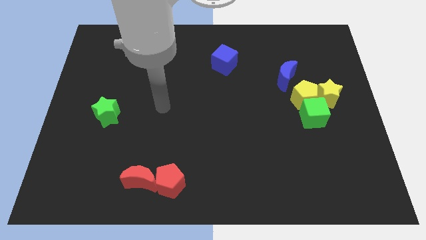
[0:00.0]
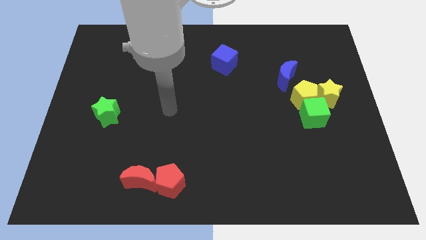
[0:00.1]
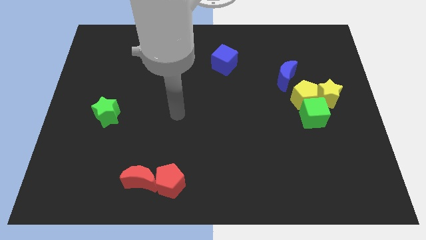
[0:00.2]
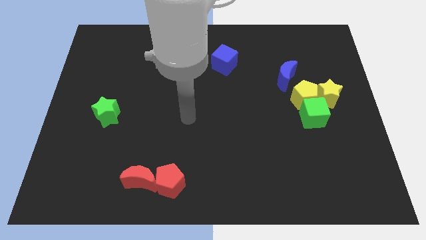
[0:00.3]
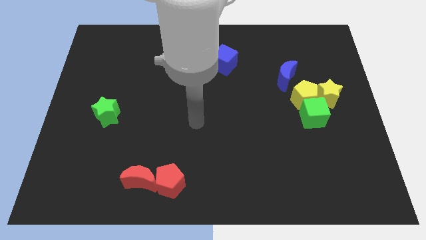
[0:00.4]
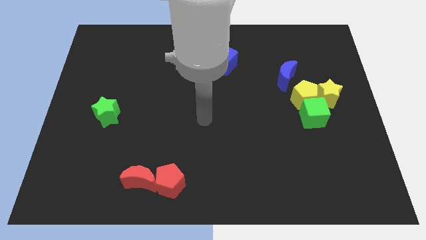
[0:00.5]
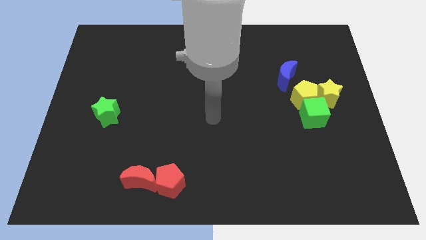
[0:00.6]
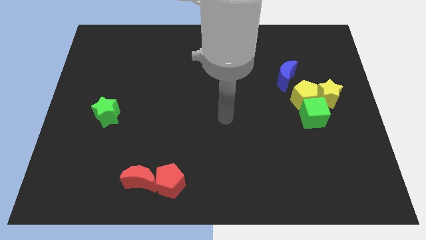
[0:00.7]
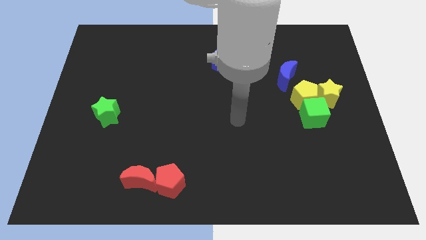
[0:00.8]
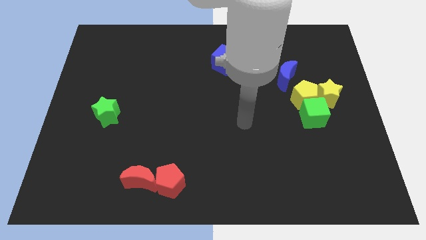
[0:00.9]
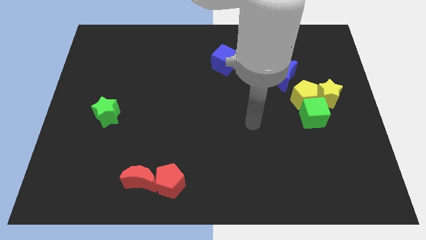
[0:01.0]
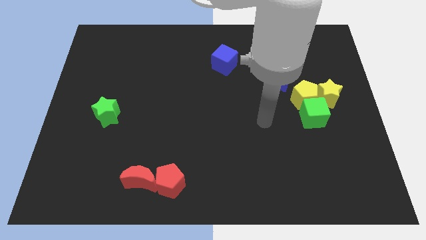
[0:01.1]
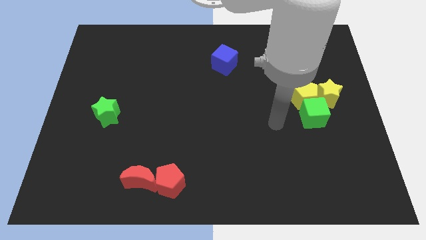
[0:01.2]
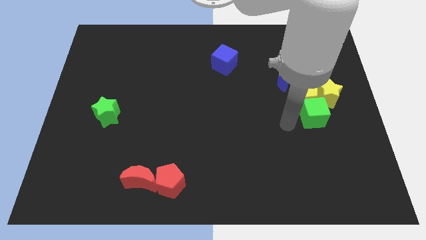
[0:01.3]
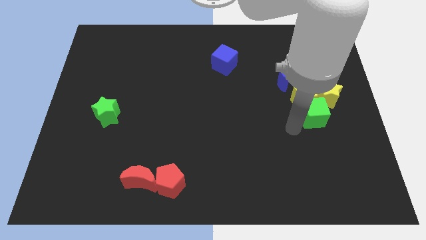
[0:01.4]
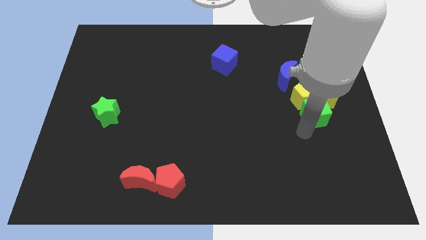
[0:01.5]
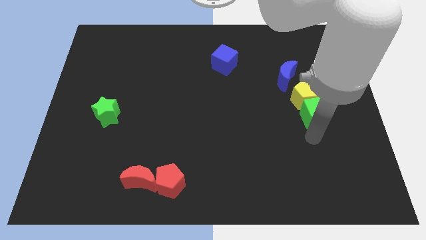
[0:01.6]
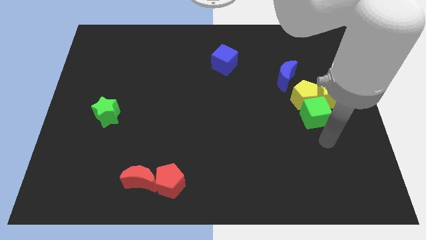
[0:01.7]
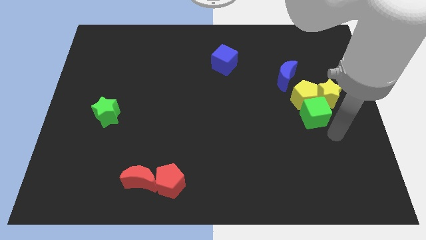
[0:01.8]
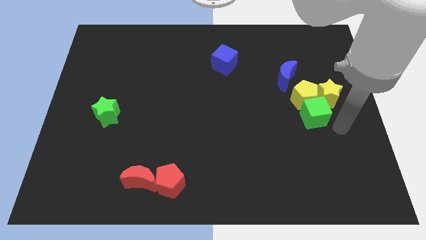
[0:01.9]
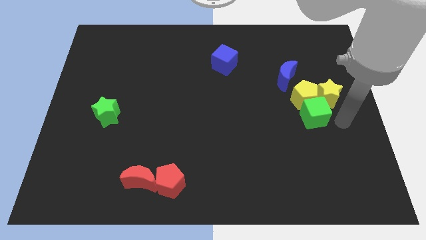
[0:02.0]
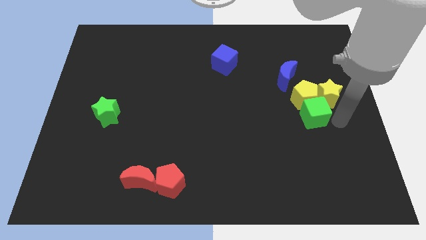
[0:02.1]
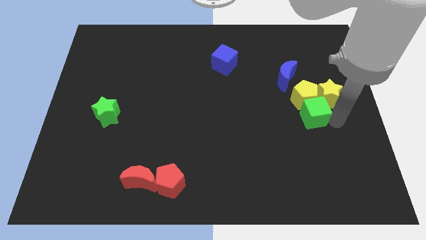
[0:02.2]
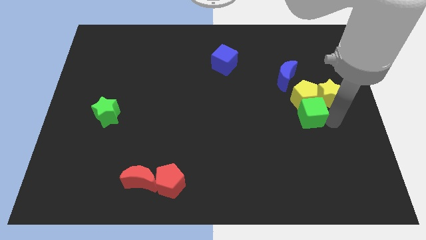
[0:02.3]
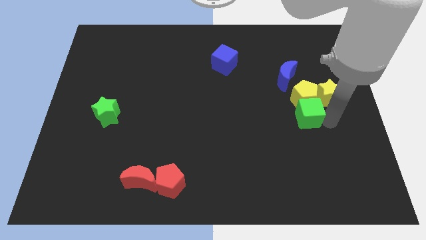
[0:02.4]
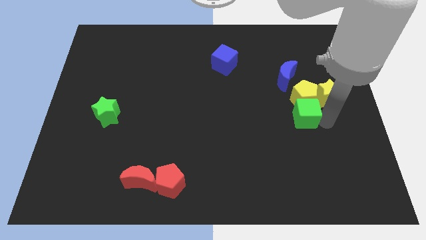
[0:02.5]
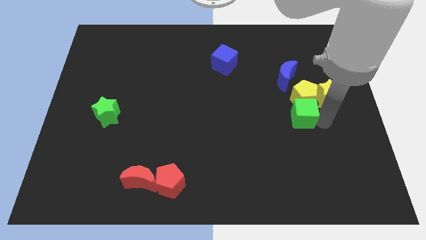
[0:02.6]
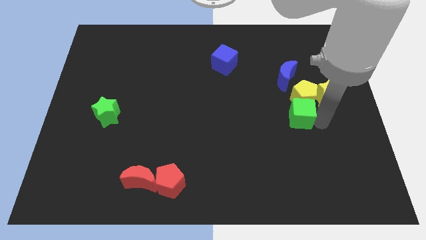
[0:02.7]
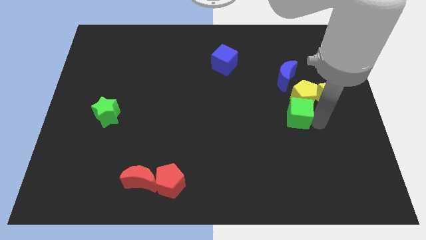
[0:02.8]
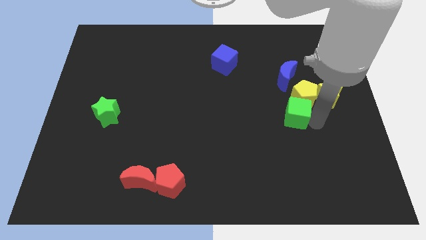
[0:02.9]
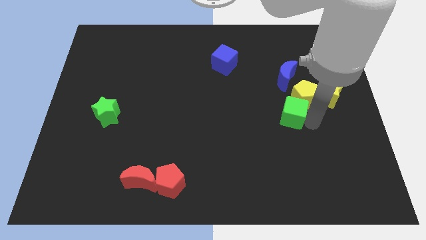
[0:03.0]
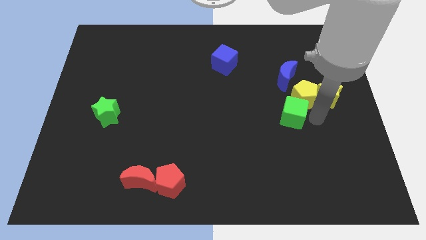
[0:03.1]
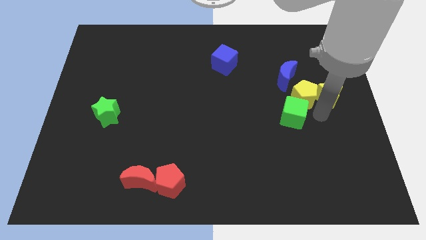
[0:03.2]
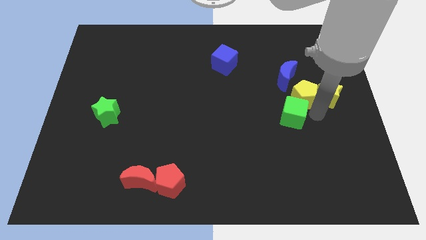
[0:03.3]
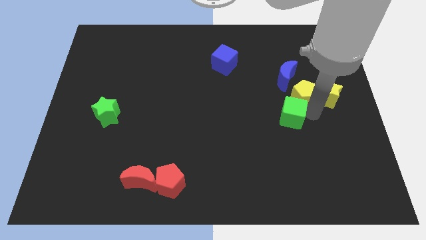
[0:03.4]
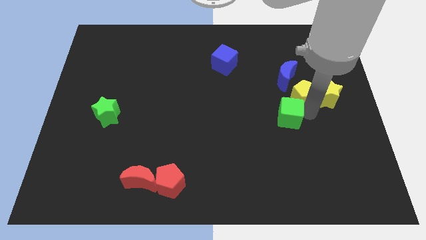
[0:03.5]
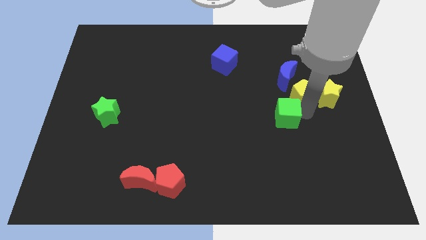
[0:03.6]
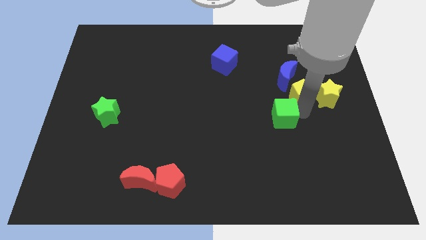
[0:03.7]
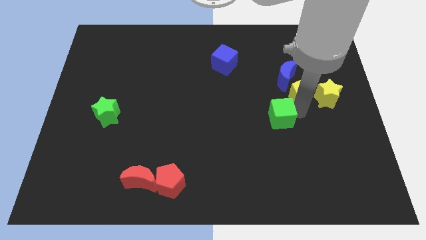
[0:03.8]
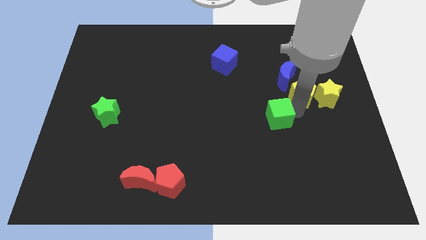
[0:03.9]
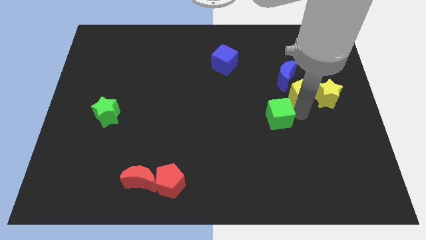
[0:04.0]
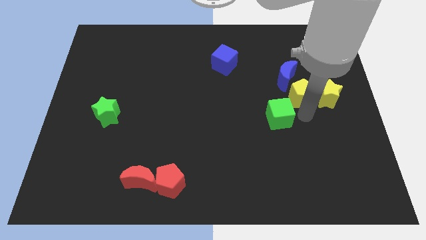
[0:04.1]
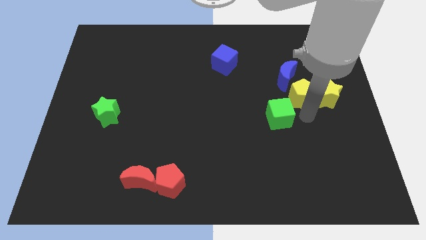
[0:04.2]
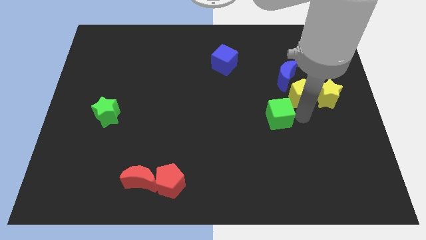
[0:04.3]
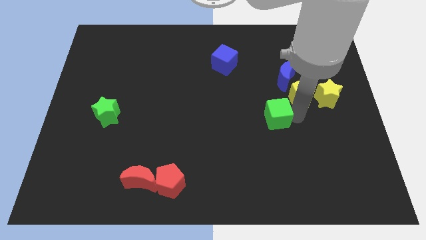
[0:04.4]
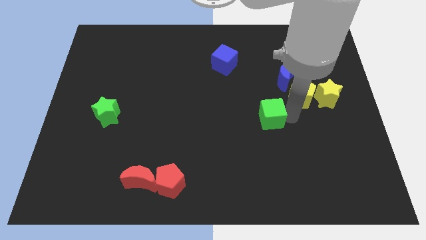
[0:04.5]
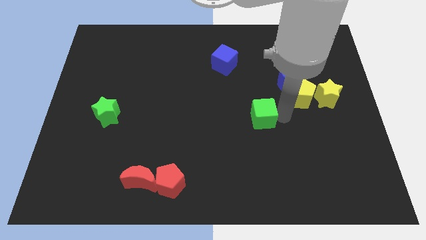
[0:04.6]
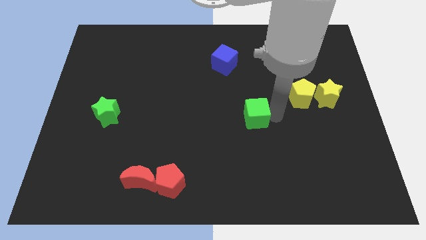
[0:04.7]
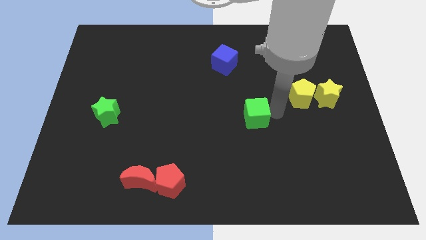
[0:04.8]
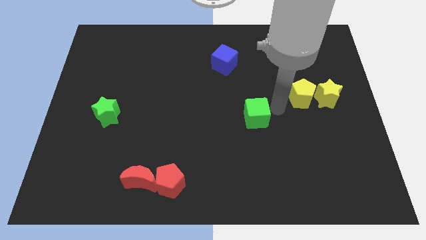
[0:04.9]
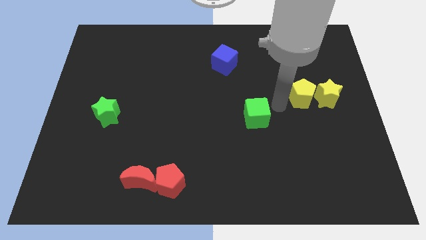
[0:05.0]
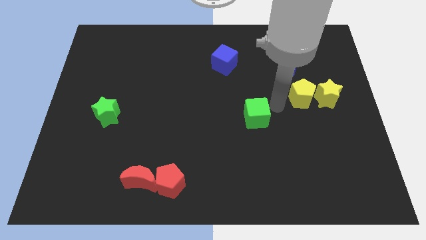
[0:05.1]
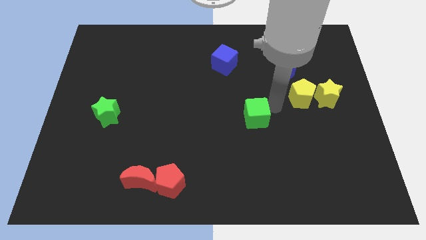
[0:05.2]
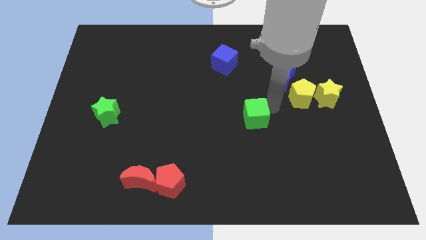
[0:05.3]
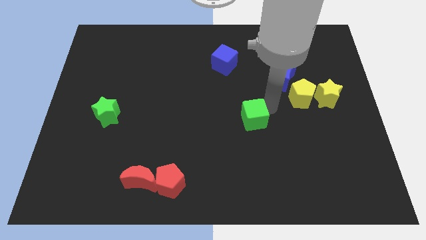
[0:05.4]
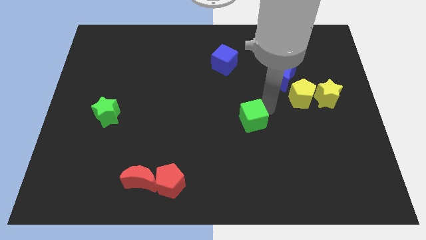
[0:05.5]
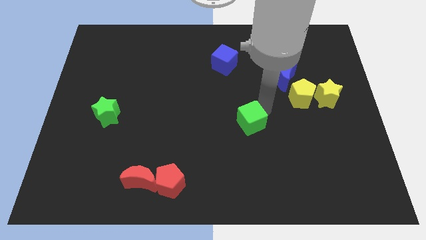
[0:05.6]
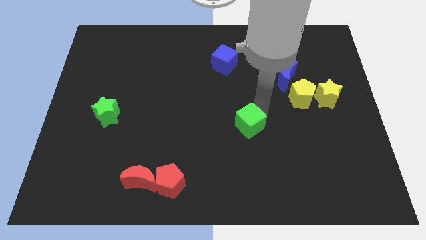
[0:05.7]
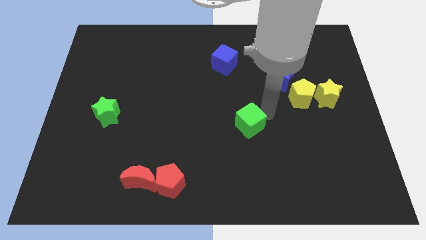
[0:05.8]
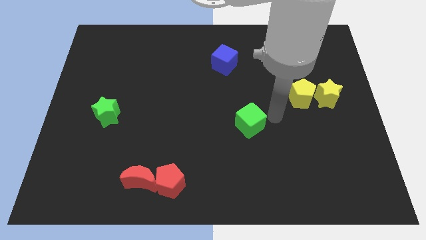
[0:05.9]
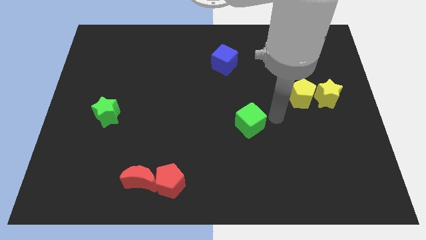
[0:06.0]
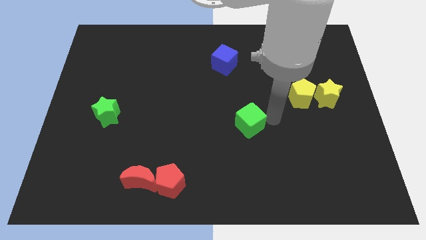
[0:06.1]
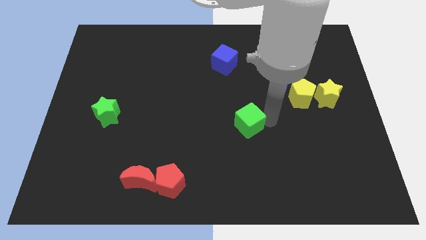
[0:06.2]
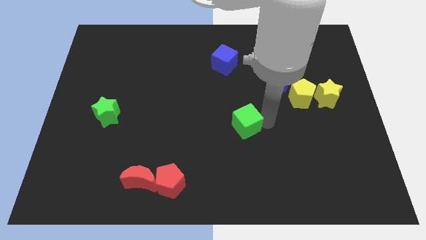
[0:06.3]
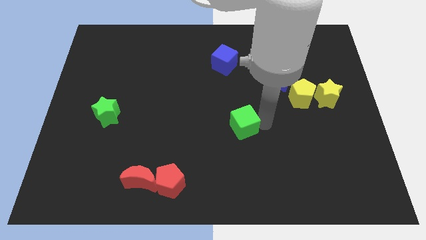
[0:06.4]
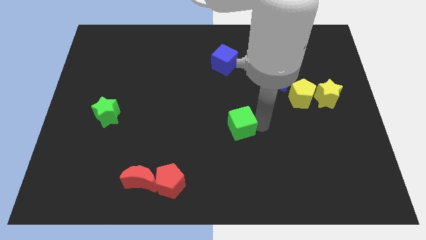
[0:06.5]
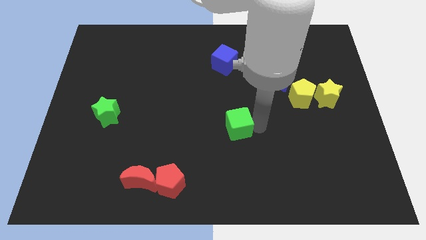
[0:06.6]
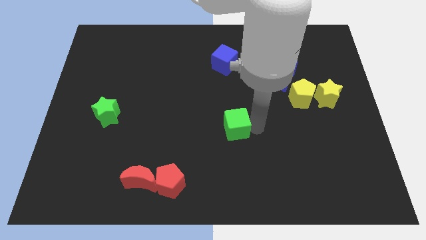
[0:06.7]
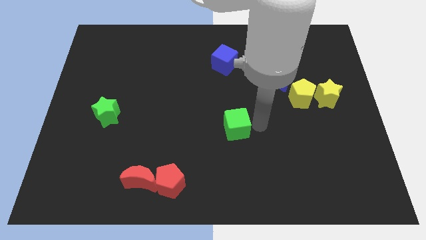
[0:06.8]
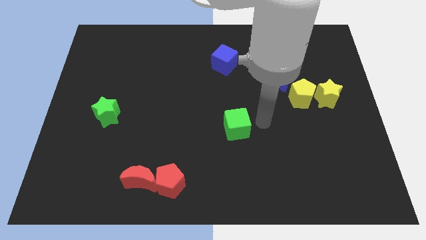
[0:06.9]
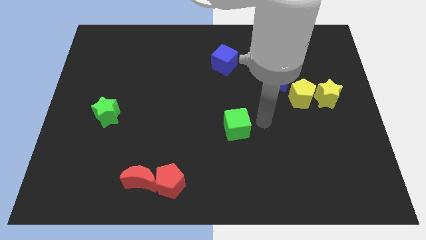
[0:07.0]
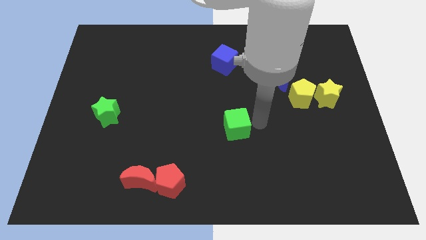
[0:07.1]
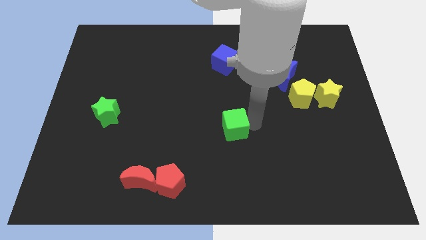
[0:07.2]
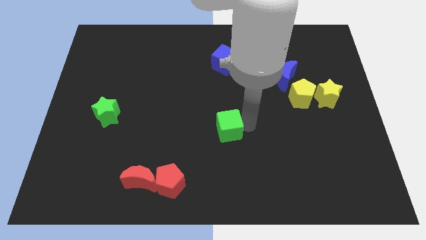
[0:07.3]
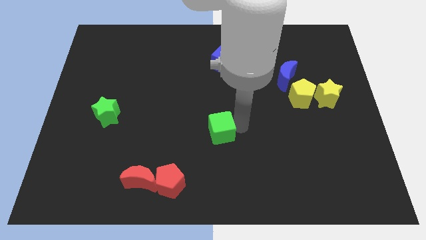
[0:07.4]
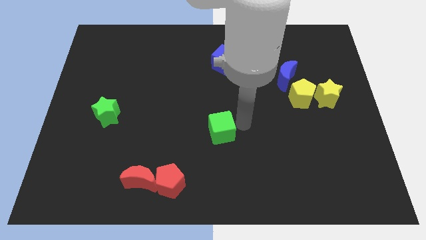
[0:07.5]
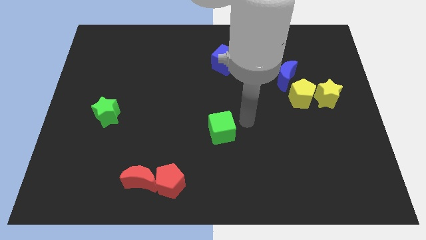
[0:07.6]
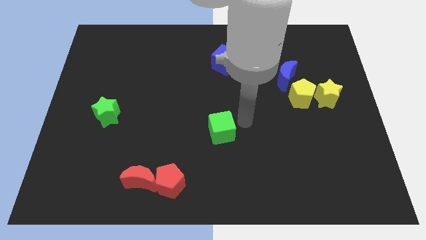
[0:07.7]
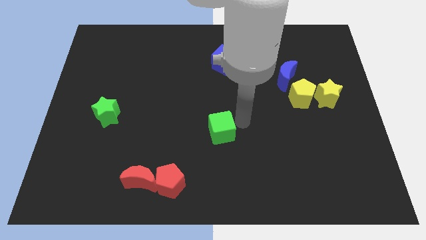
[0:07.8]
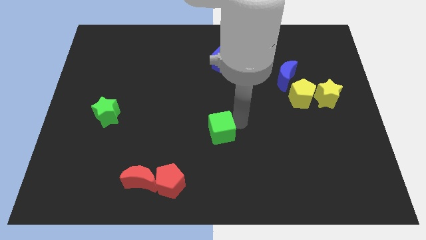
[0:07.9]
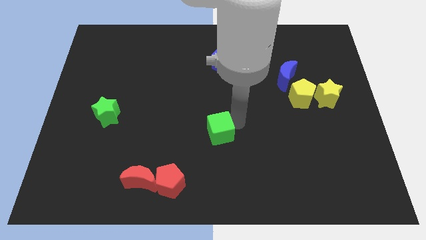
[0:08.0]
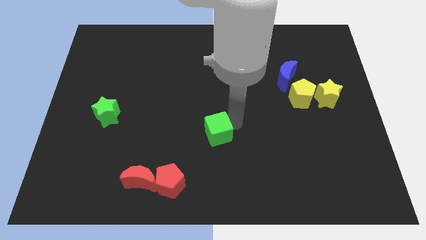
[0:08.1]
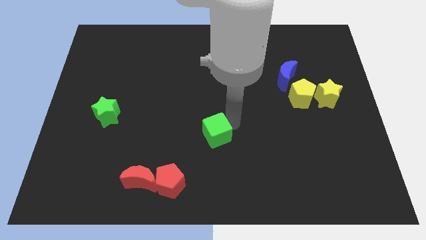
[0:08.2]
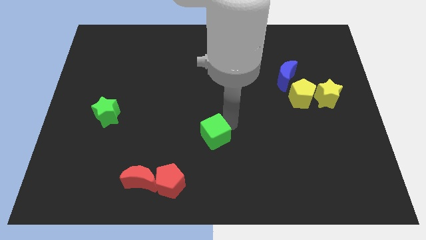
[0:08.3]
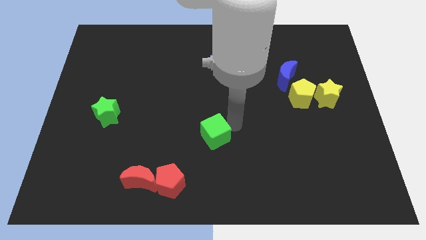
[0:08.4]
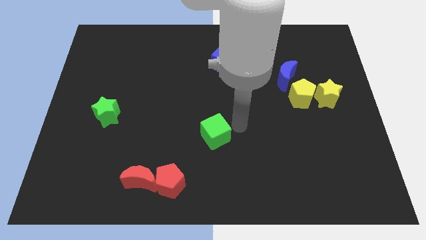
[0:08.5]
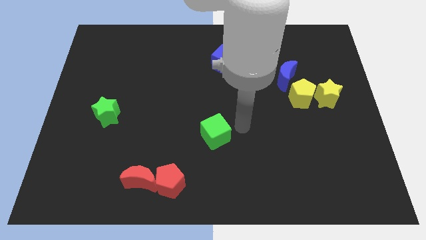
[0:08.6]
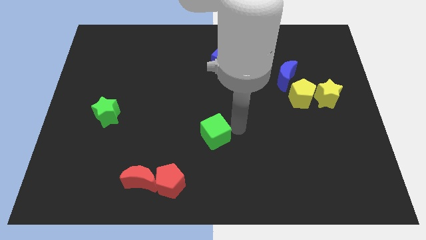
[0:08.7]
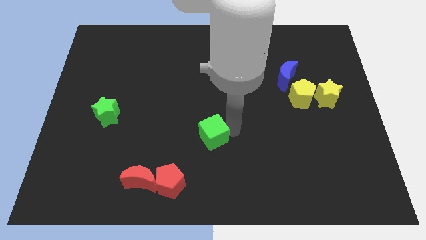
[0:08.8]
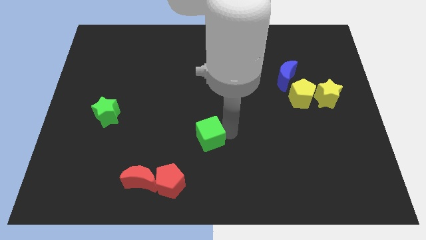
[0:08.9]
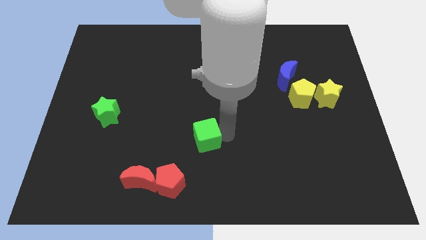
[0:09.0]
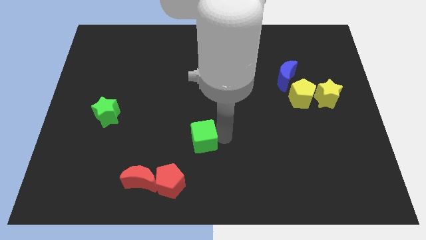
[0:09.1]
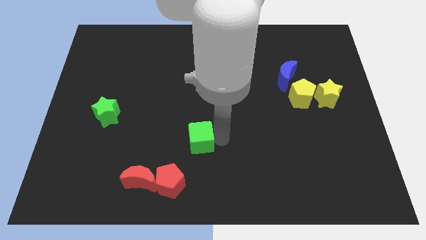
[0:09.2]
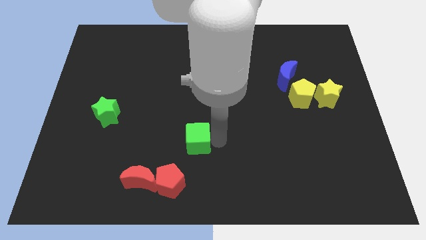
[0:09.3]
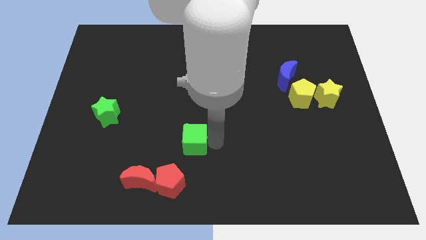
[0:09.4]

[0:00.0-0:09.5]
move the green cube above the red pentagon
